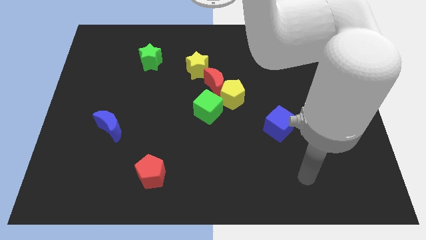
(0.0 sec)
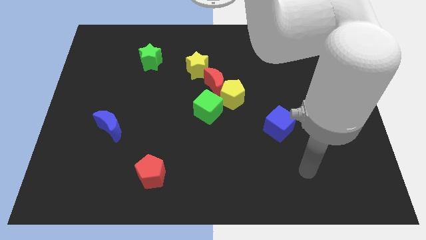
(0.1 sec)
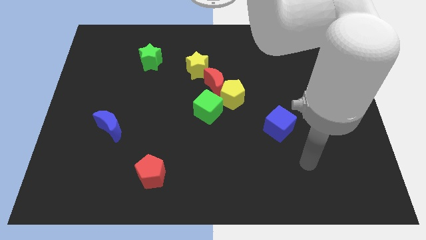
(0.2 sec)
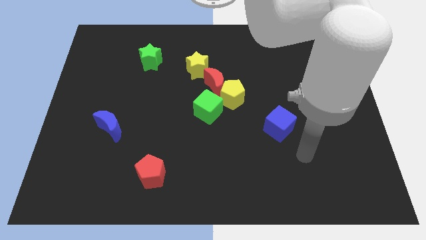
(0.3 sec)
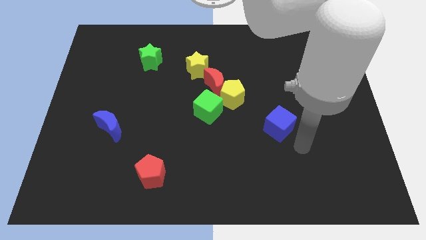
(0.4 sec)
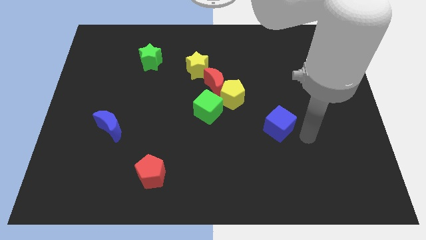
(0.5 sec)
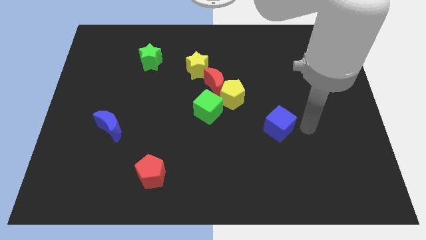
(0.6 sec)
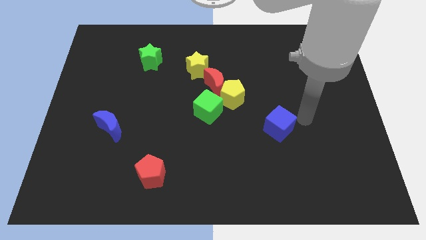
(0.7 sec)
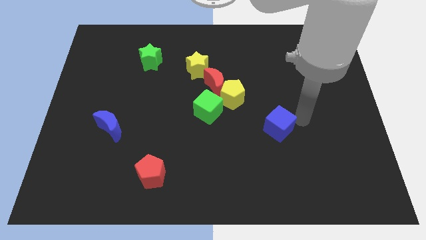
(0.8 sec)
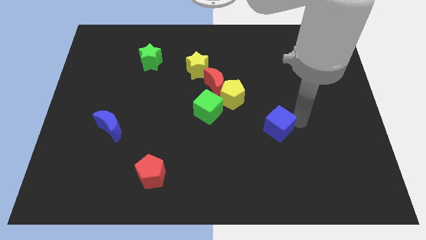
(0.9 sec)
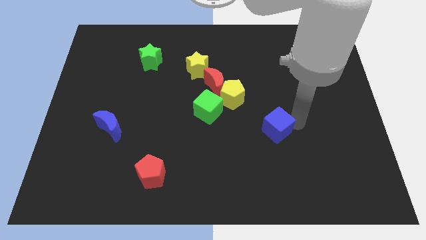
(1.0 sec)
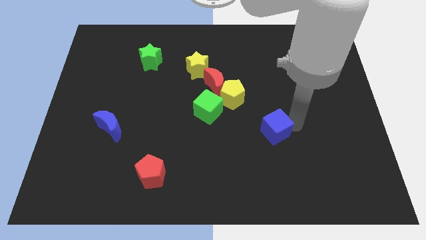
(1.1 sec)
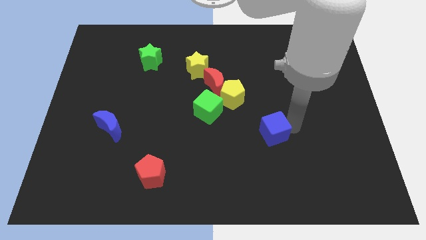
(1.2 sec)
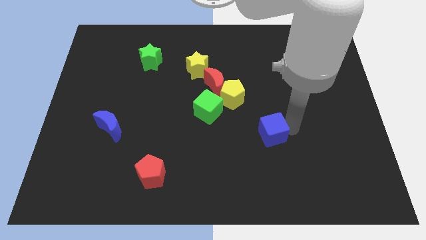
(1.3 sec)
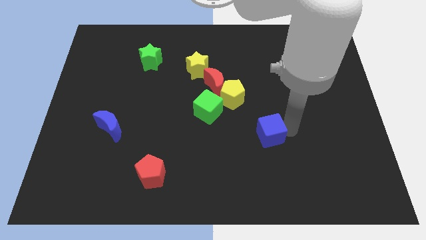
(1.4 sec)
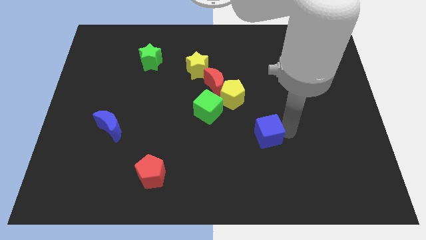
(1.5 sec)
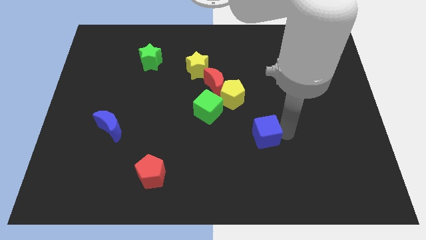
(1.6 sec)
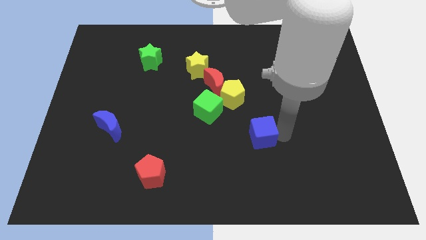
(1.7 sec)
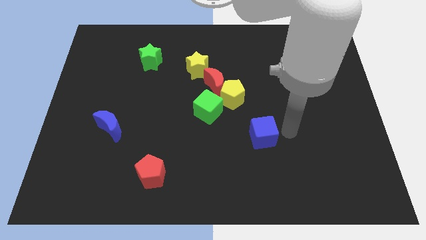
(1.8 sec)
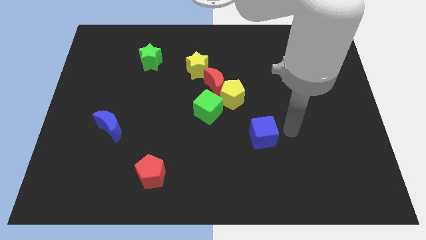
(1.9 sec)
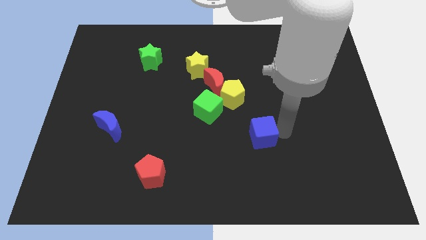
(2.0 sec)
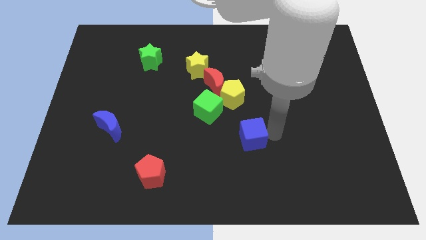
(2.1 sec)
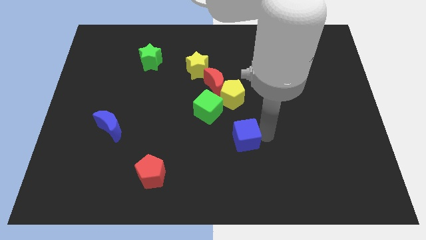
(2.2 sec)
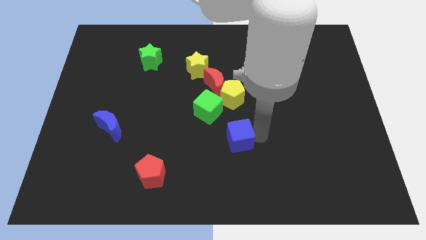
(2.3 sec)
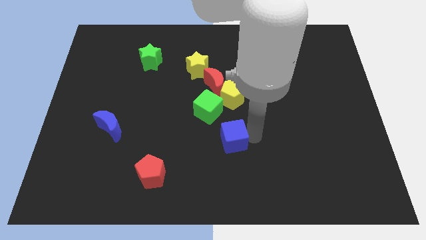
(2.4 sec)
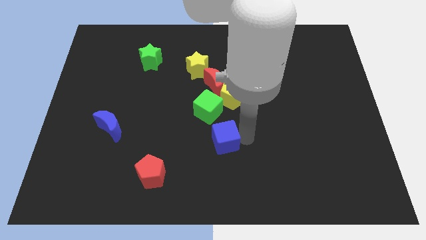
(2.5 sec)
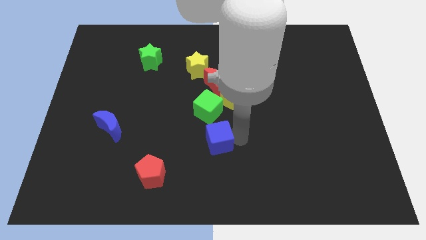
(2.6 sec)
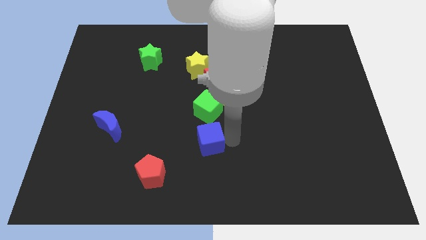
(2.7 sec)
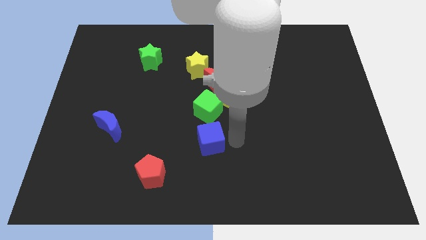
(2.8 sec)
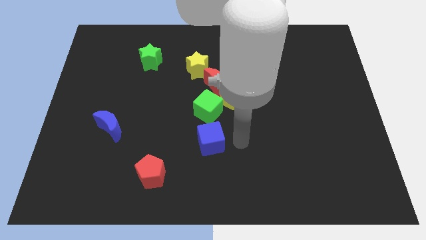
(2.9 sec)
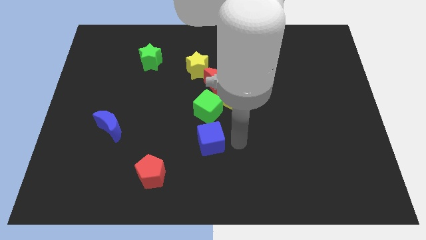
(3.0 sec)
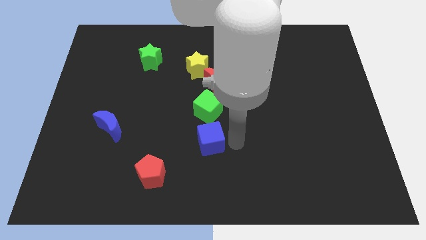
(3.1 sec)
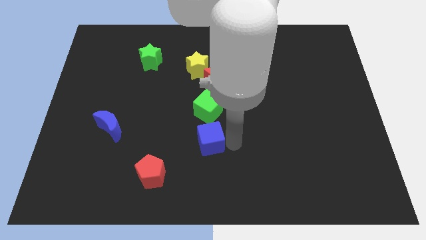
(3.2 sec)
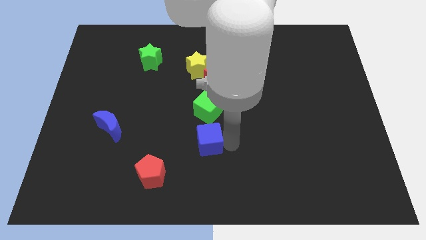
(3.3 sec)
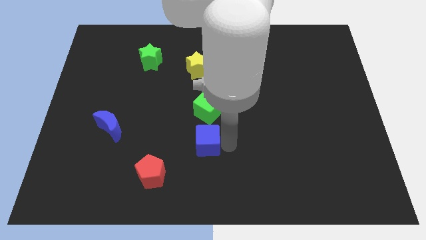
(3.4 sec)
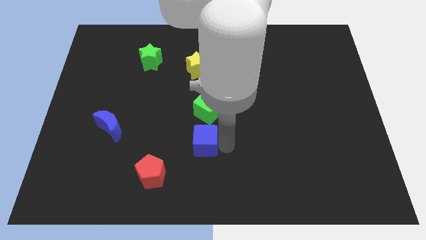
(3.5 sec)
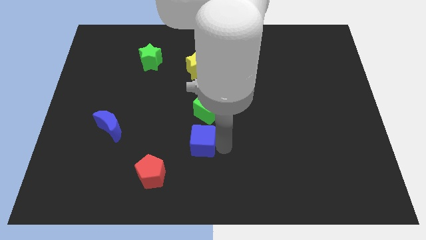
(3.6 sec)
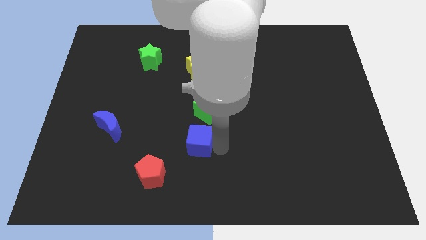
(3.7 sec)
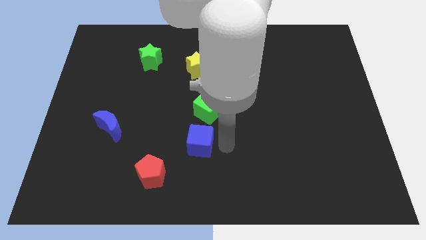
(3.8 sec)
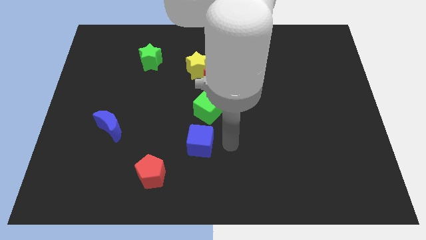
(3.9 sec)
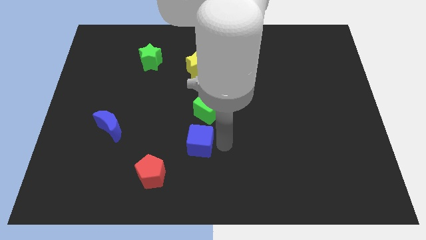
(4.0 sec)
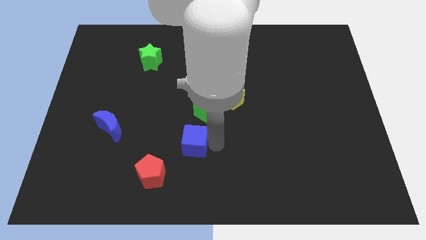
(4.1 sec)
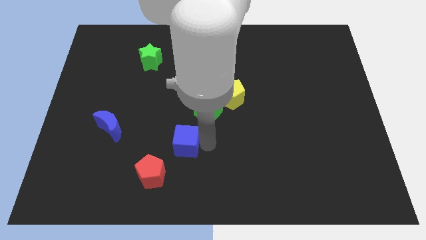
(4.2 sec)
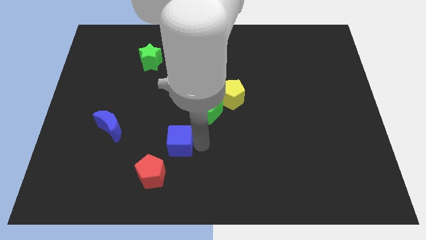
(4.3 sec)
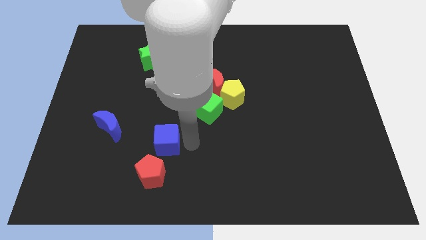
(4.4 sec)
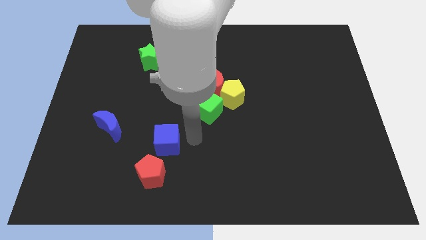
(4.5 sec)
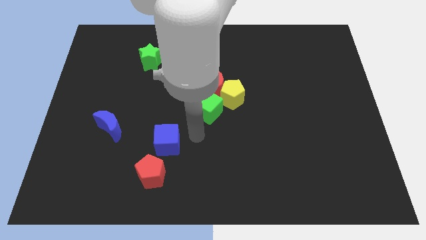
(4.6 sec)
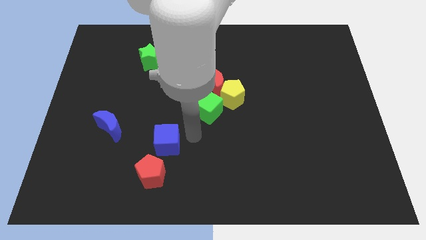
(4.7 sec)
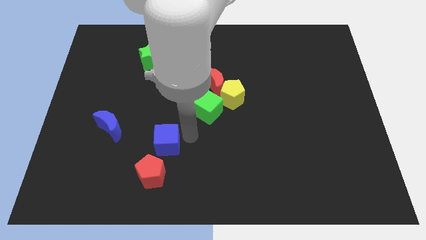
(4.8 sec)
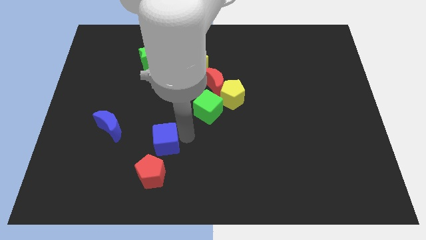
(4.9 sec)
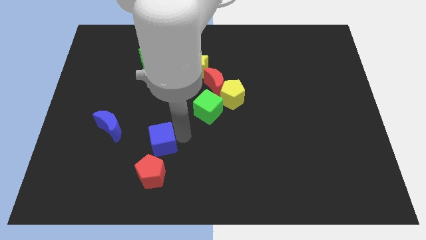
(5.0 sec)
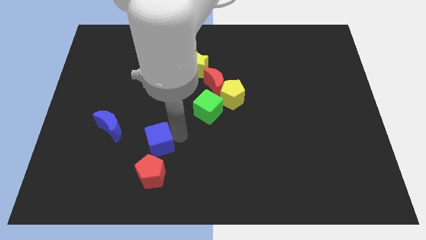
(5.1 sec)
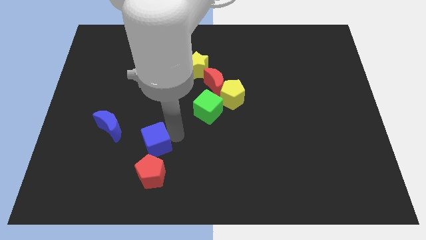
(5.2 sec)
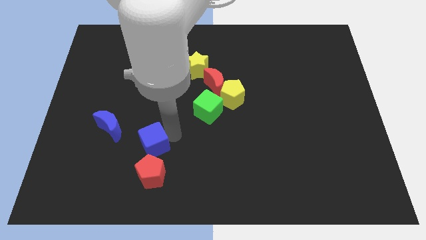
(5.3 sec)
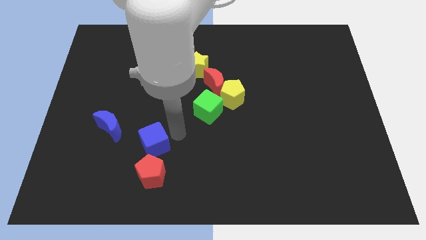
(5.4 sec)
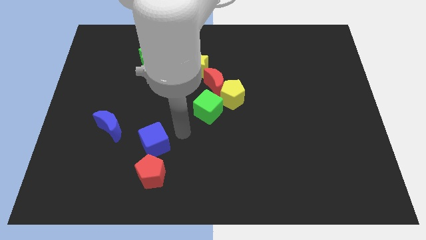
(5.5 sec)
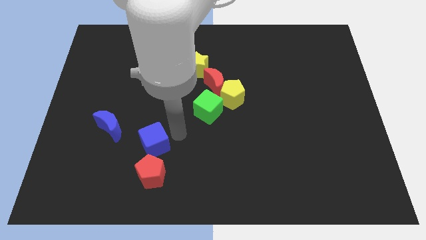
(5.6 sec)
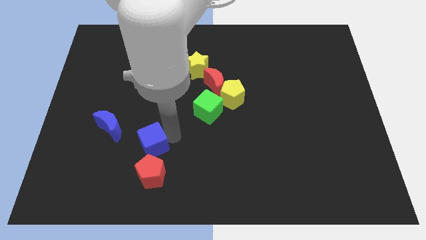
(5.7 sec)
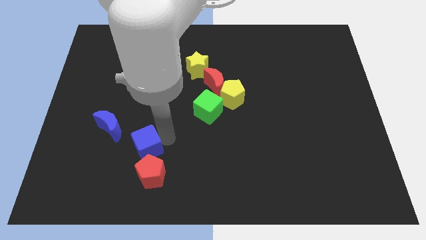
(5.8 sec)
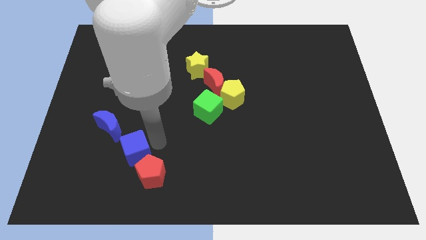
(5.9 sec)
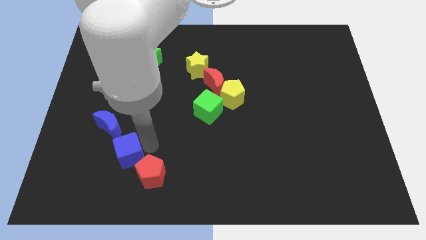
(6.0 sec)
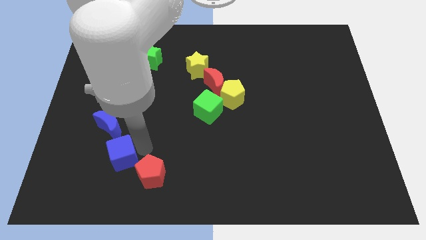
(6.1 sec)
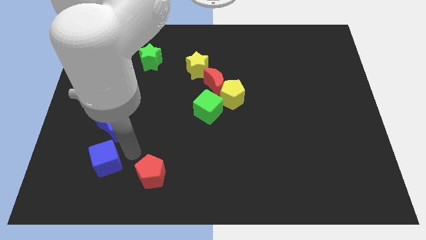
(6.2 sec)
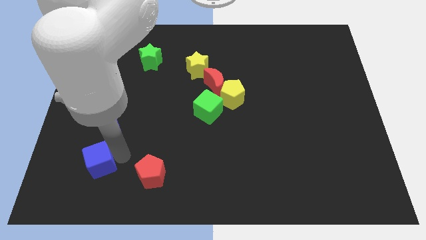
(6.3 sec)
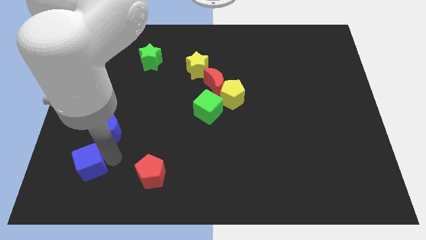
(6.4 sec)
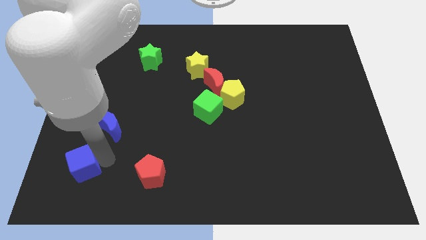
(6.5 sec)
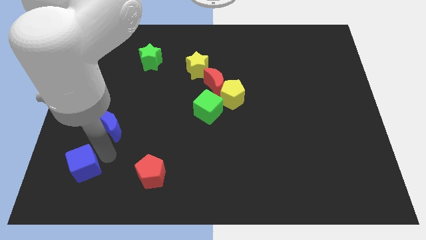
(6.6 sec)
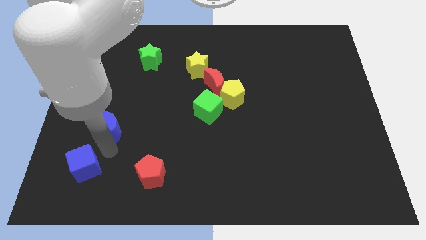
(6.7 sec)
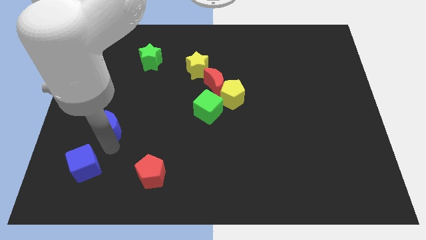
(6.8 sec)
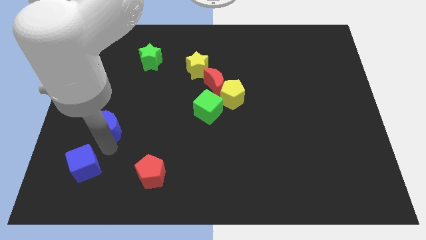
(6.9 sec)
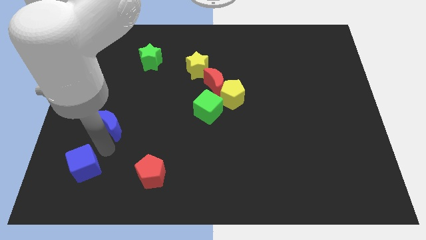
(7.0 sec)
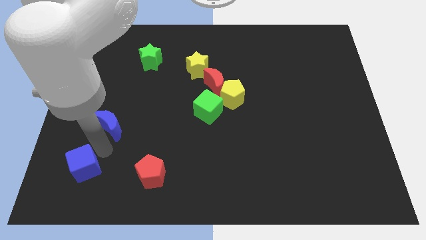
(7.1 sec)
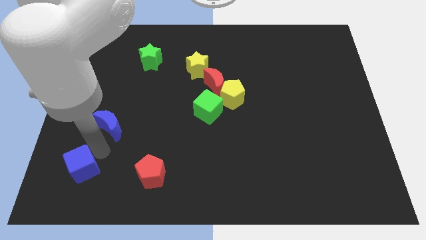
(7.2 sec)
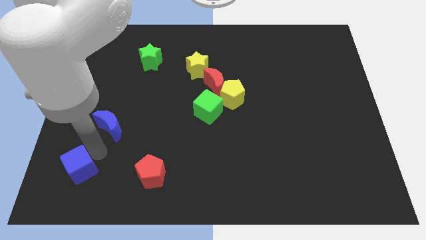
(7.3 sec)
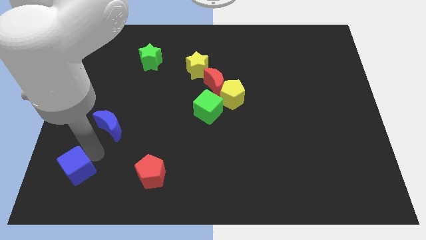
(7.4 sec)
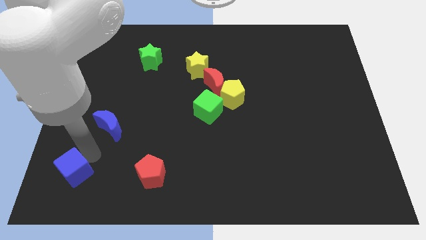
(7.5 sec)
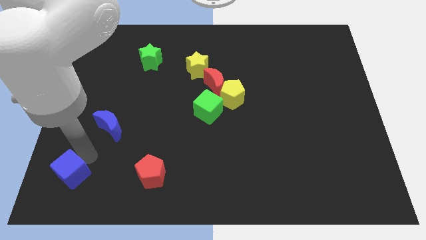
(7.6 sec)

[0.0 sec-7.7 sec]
push the blue cube to the bottom left corner
